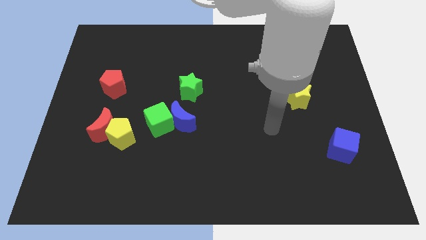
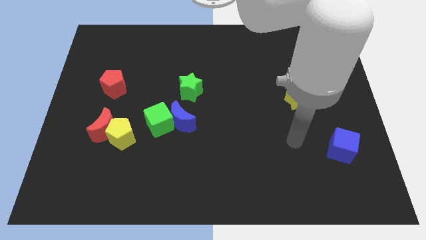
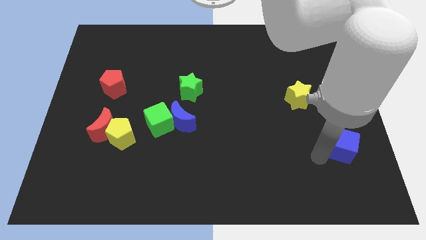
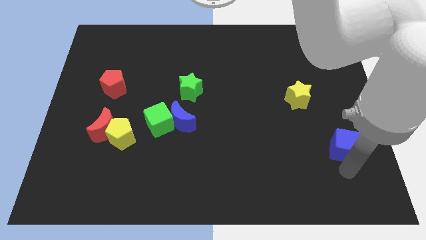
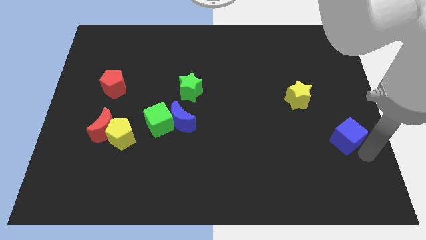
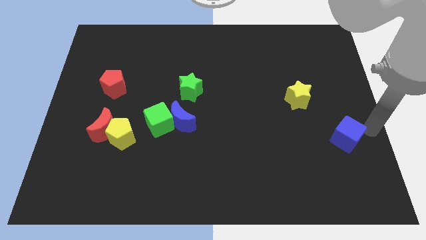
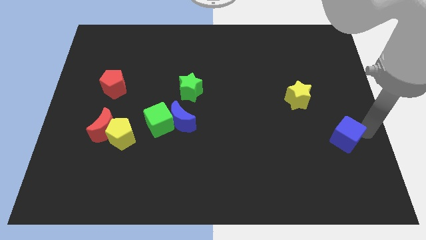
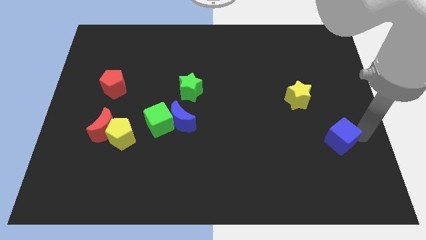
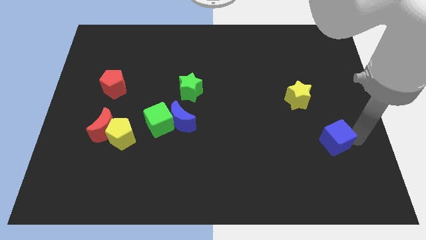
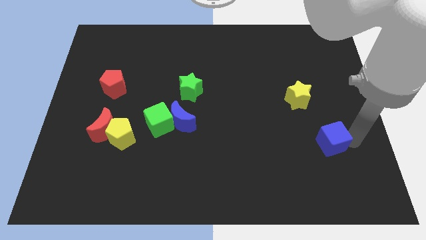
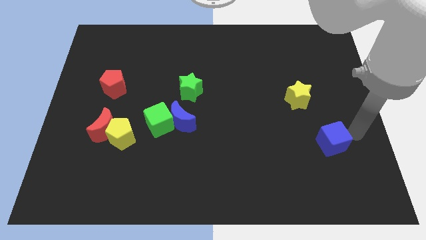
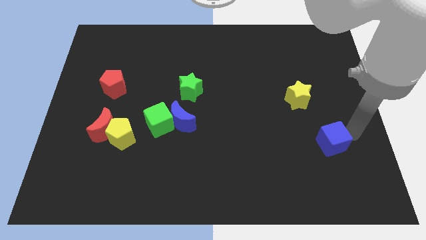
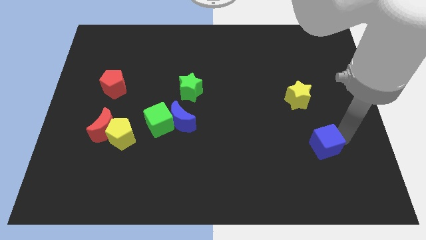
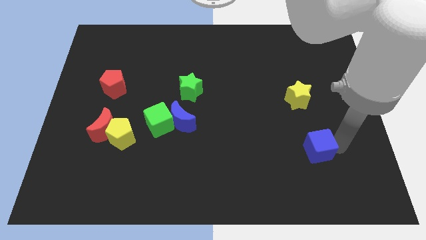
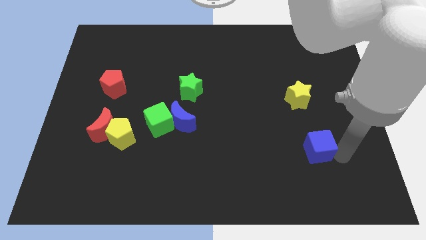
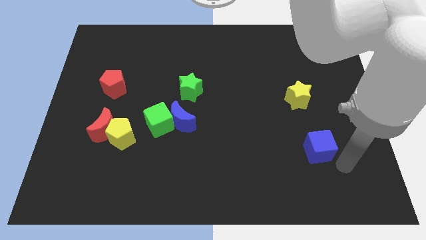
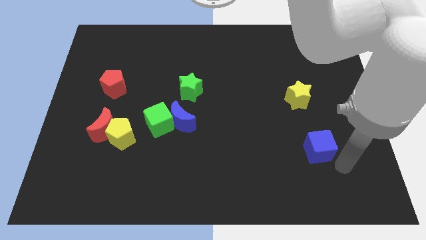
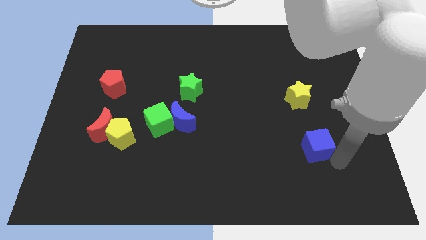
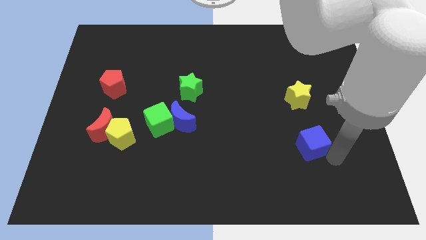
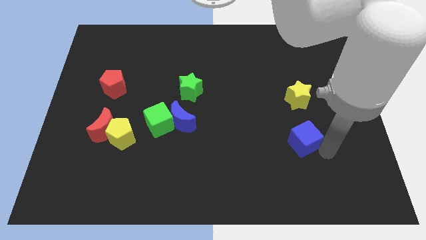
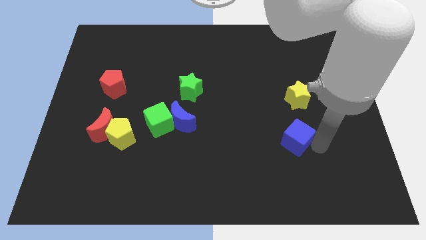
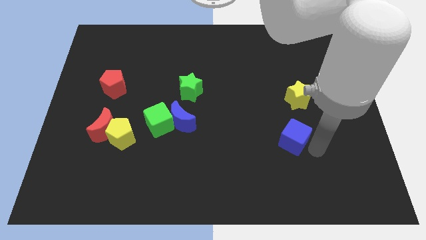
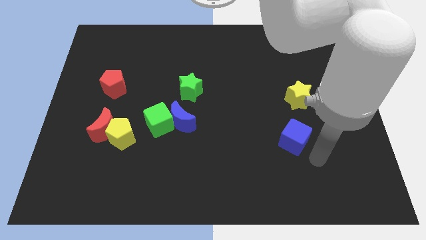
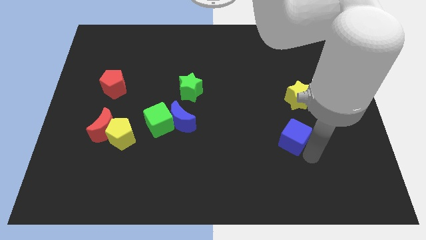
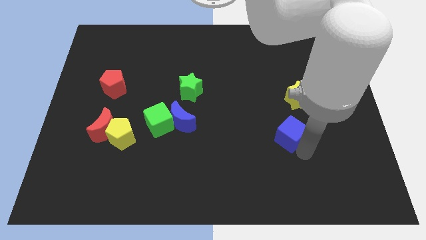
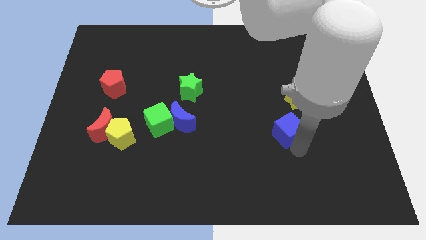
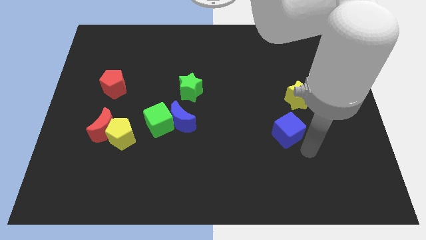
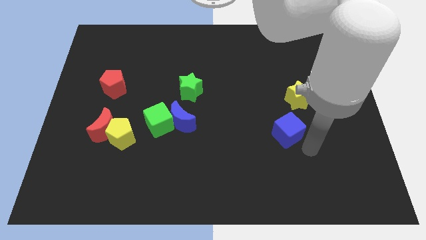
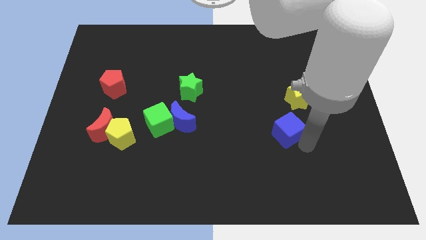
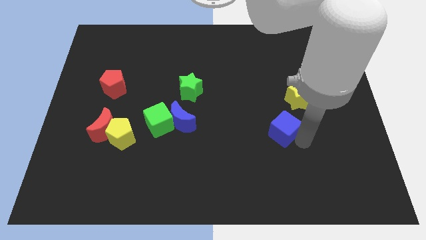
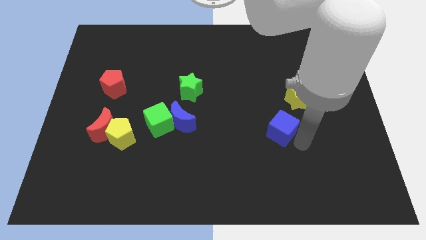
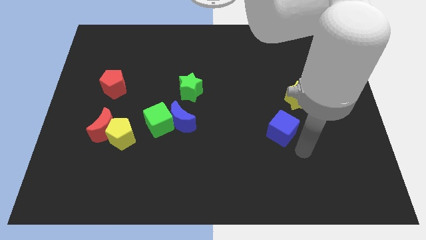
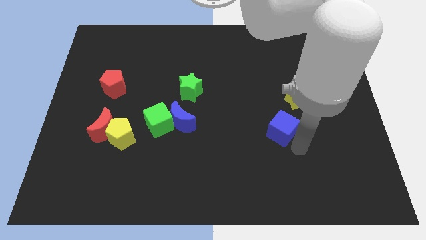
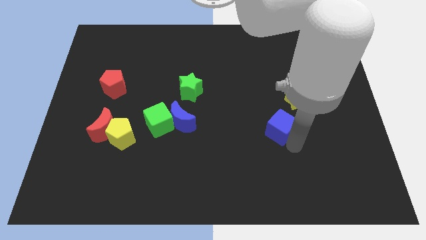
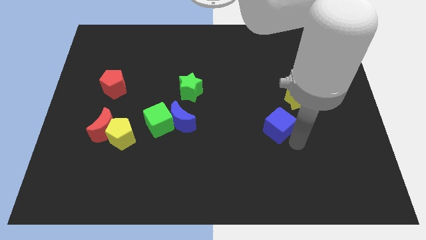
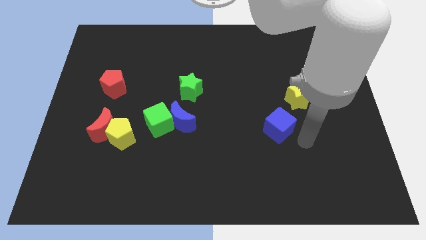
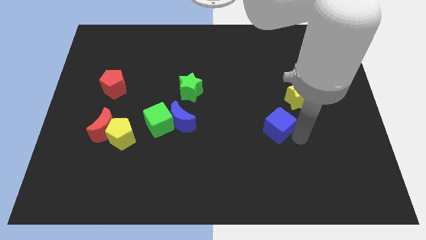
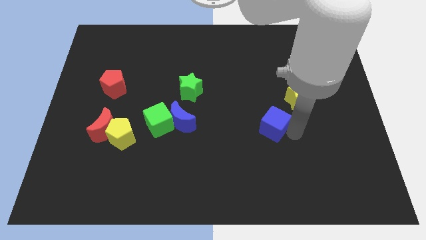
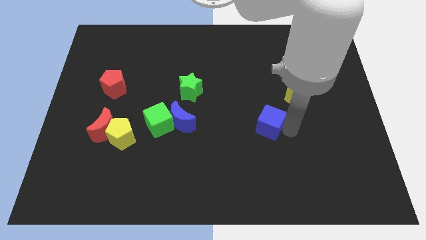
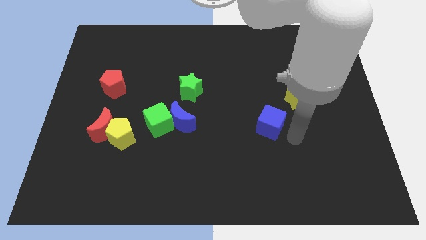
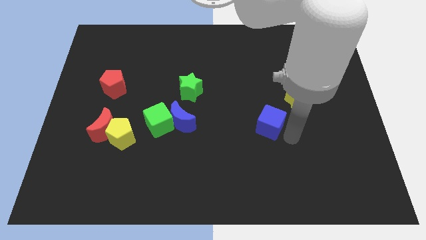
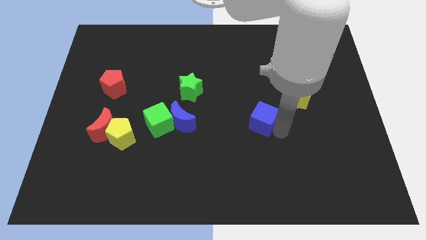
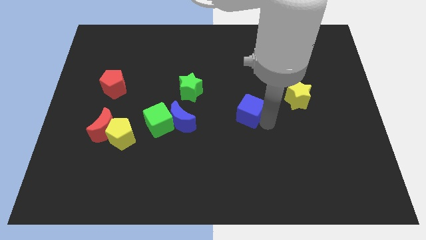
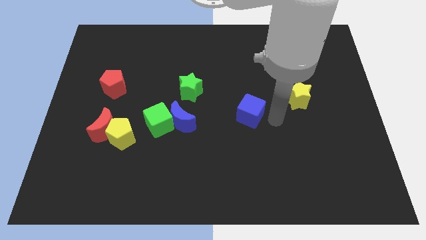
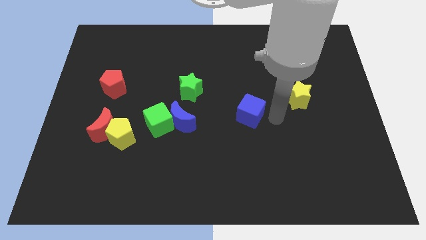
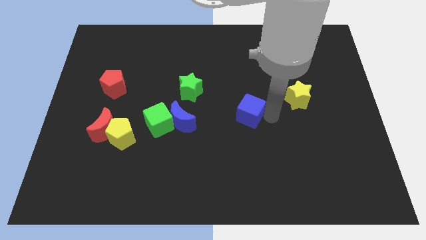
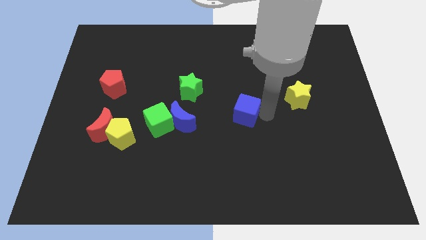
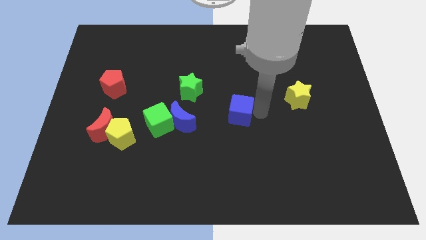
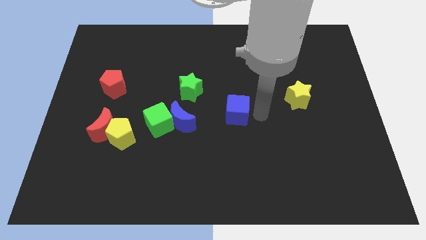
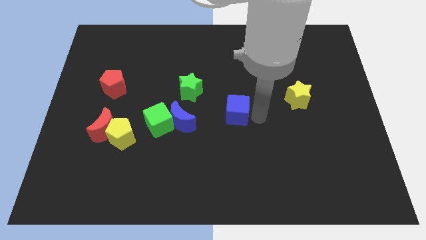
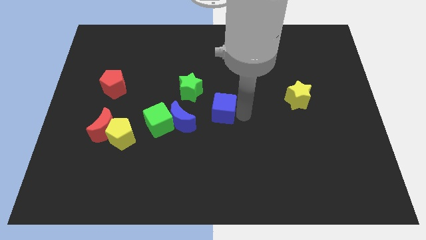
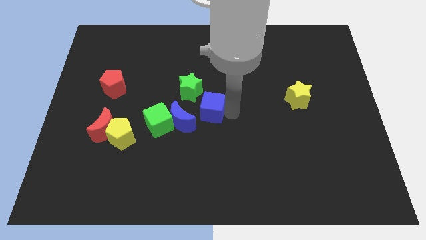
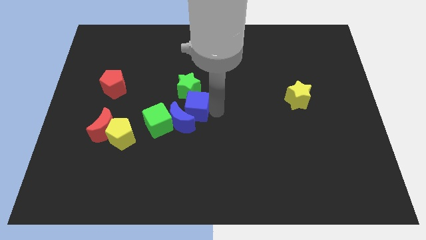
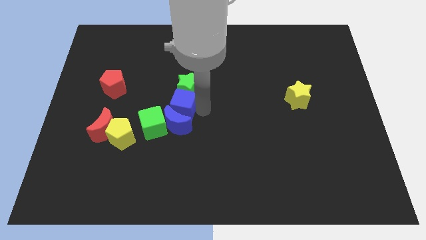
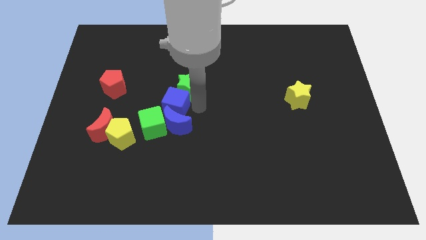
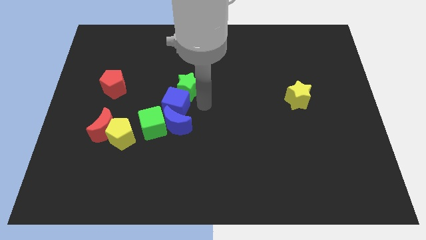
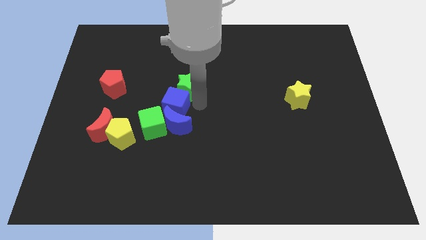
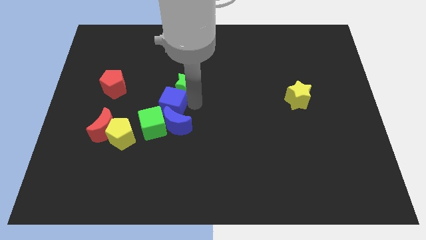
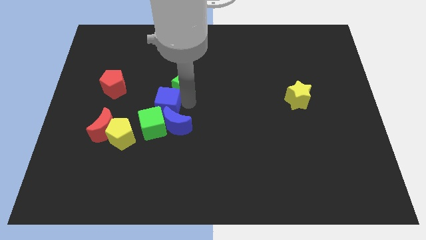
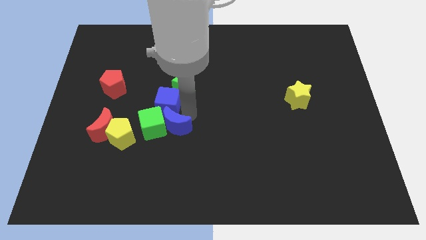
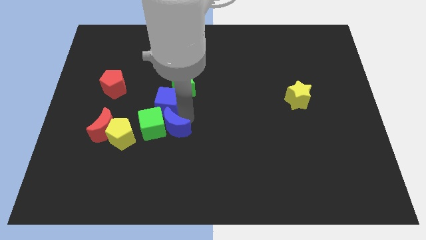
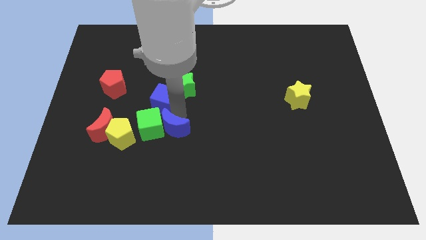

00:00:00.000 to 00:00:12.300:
push the blue cube to the left of the green star

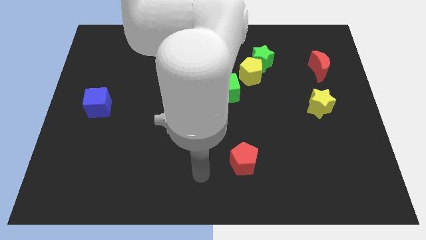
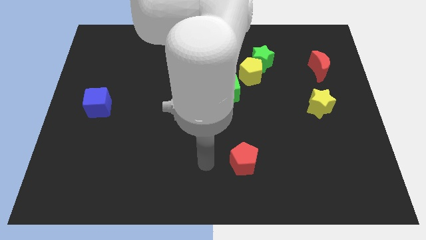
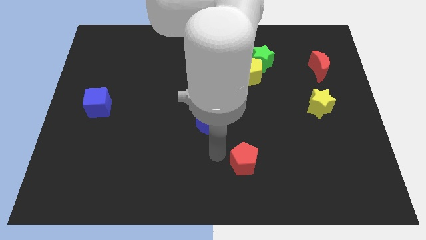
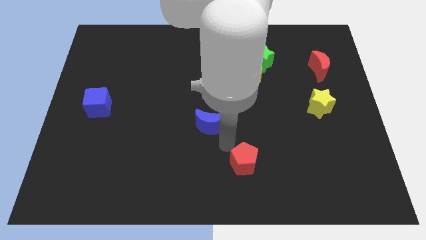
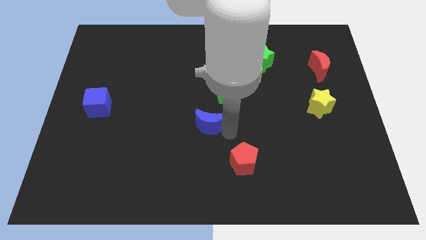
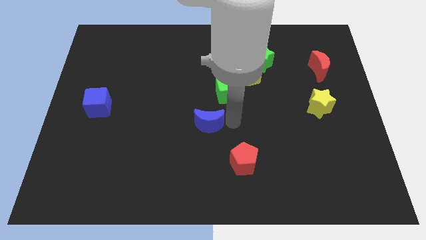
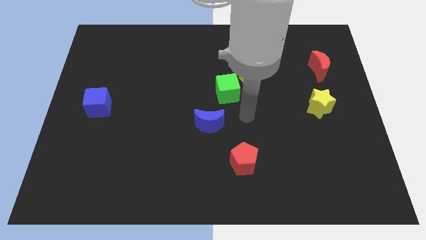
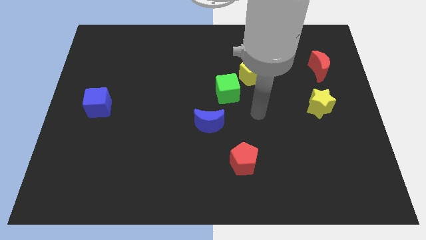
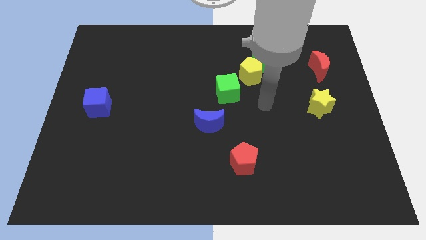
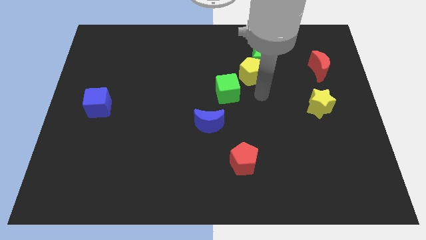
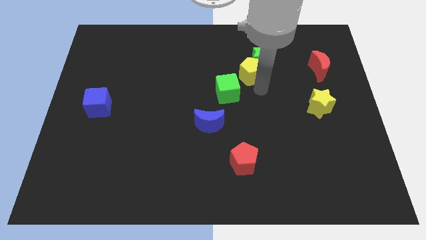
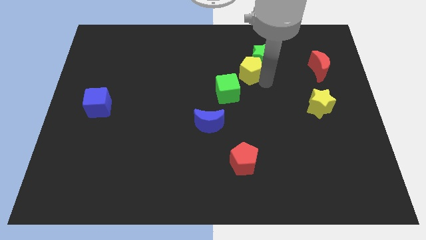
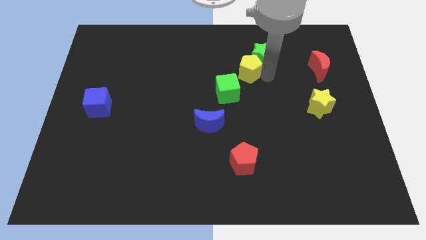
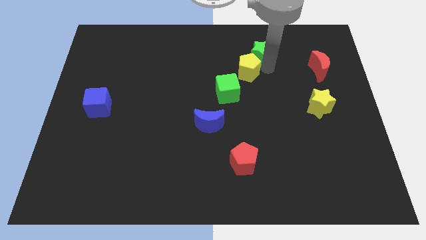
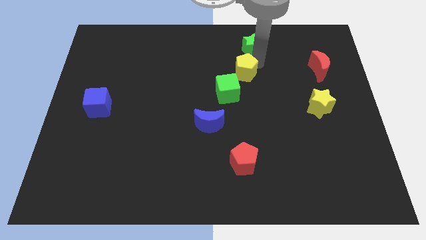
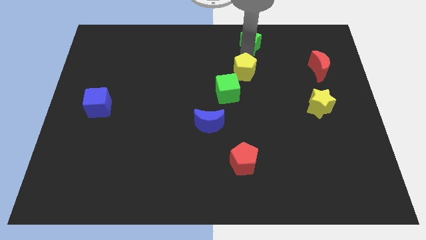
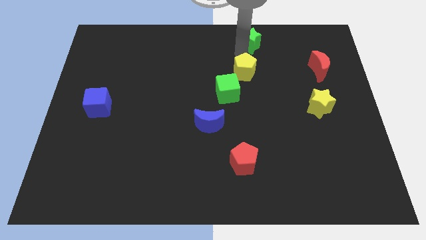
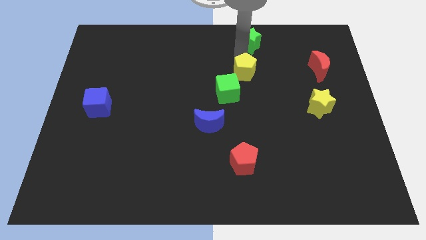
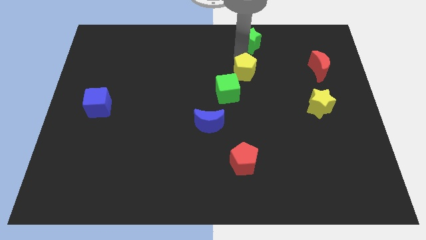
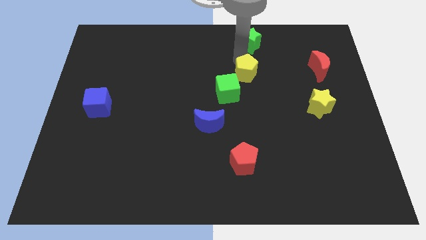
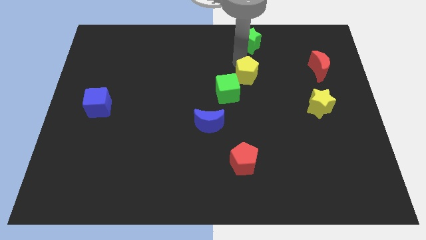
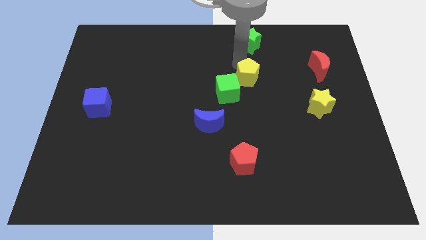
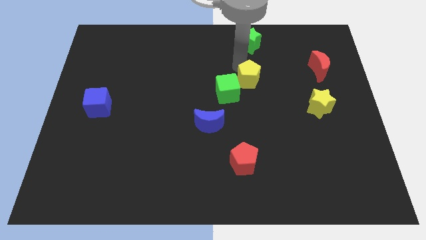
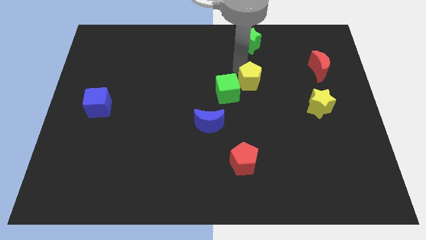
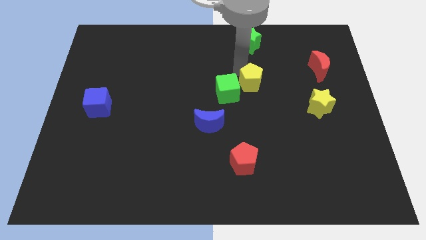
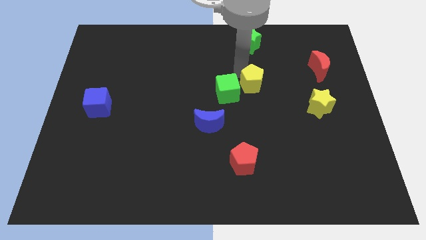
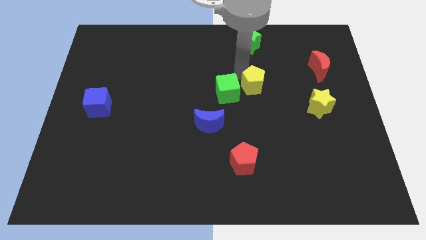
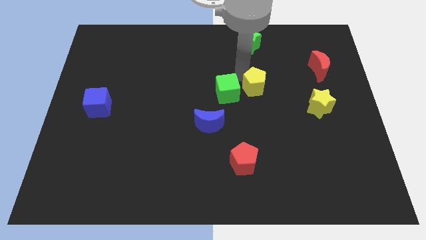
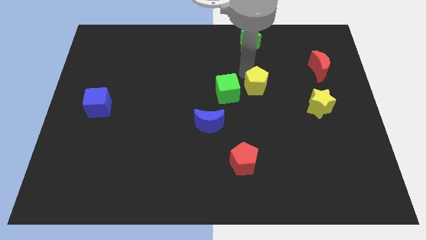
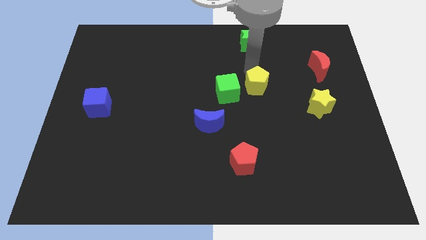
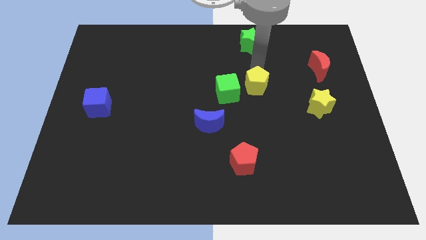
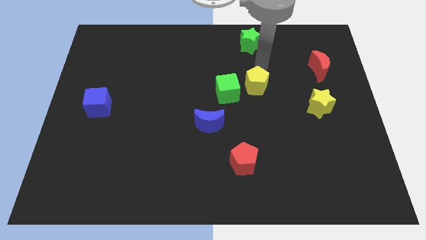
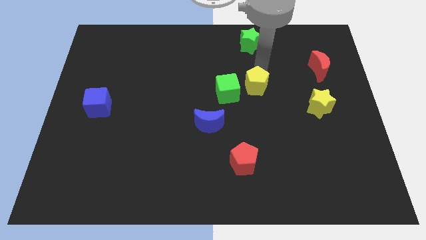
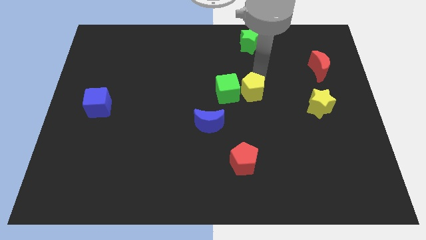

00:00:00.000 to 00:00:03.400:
put the yellow pentagon diagonally down and to the right of the green cube
